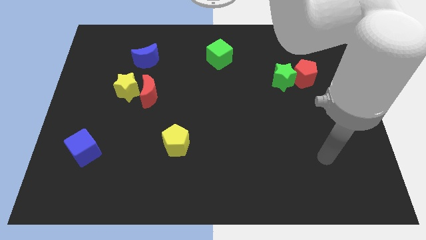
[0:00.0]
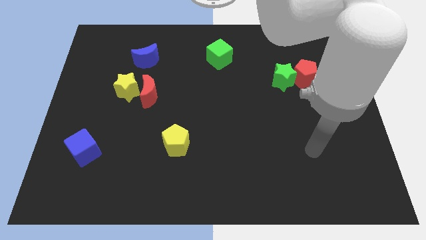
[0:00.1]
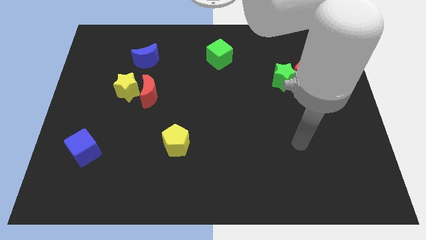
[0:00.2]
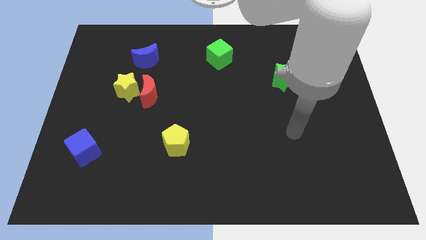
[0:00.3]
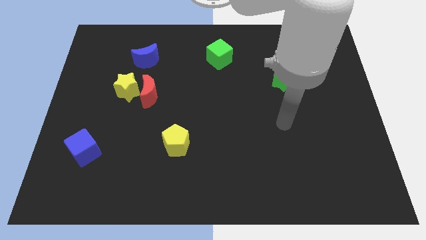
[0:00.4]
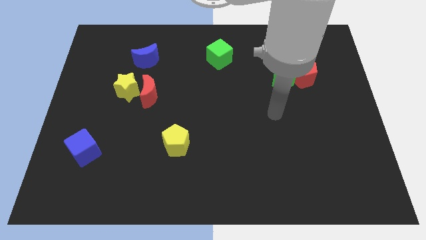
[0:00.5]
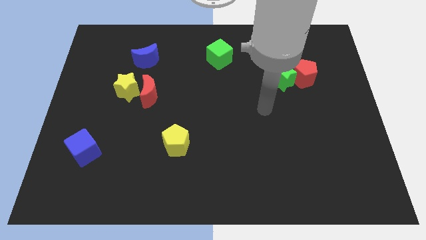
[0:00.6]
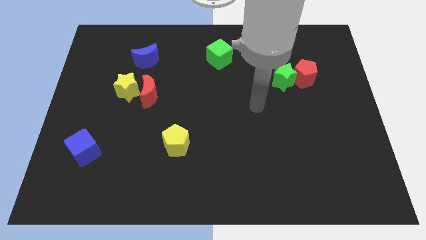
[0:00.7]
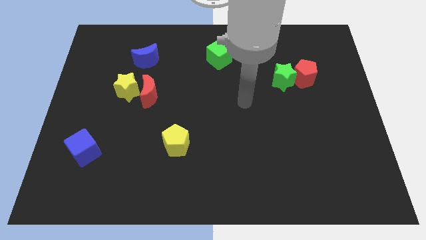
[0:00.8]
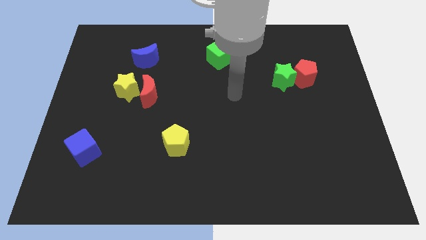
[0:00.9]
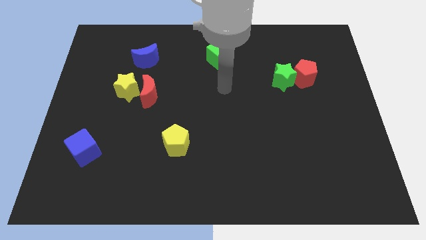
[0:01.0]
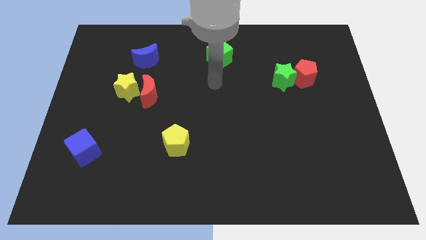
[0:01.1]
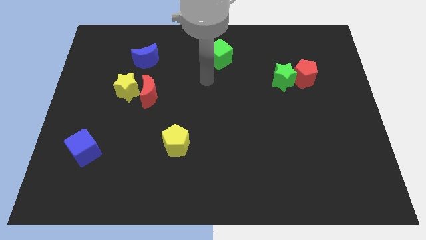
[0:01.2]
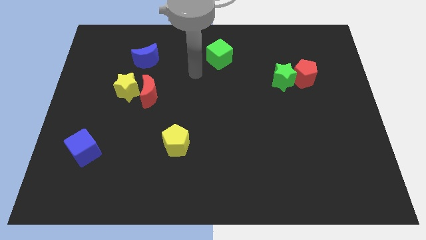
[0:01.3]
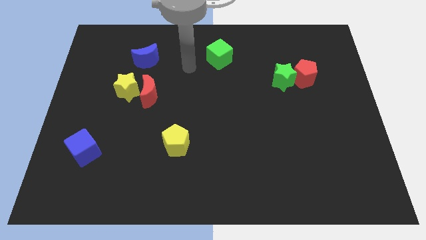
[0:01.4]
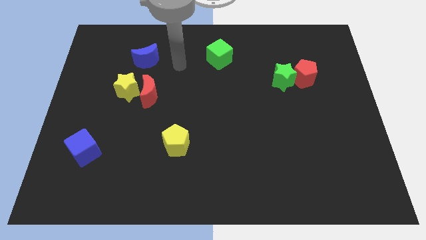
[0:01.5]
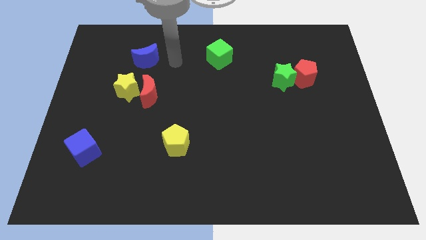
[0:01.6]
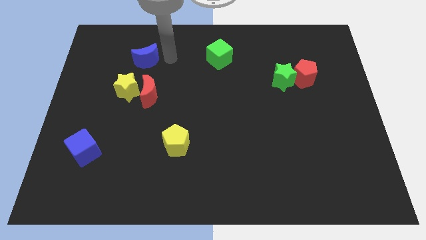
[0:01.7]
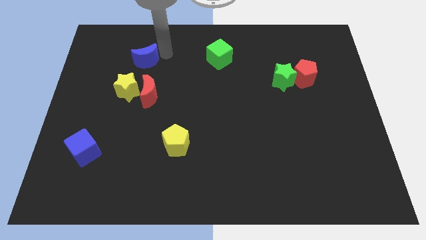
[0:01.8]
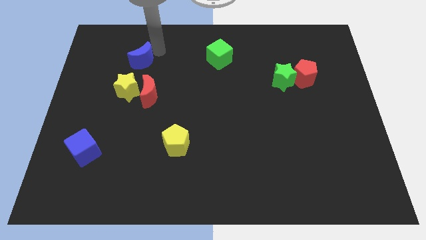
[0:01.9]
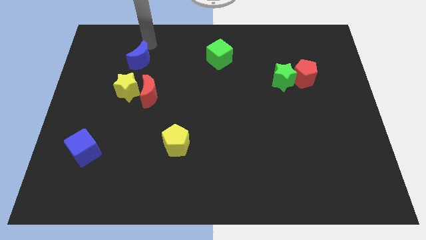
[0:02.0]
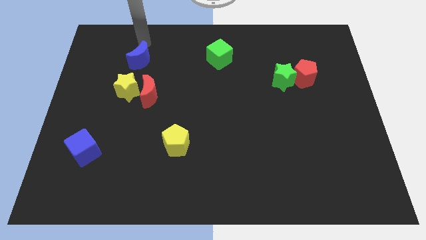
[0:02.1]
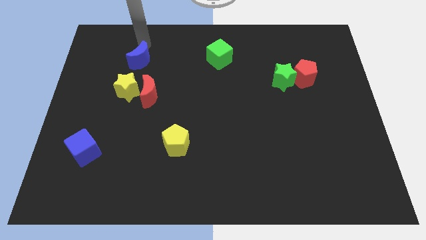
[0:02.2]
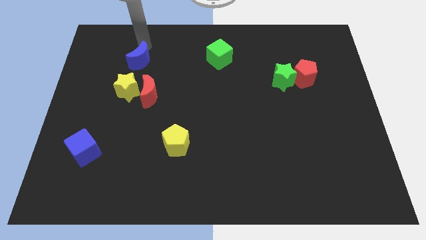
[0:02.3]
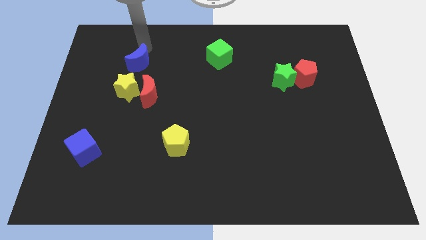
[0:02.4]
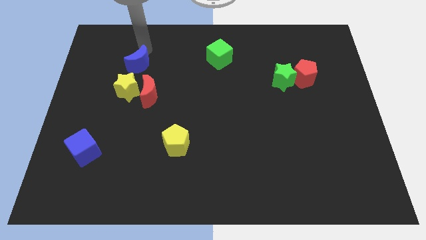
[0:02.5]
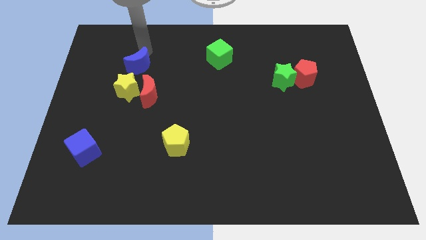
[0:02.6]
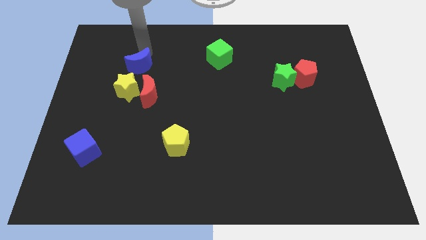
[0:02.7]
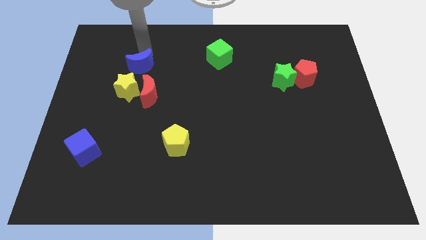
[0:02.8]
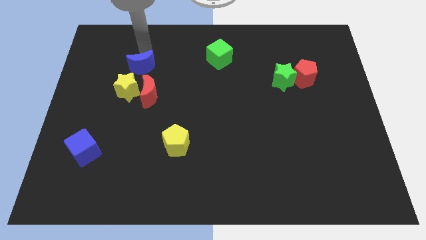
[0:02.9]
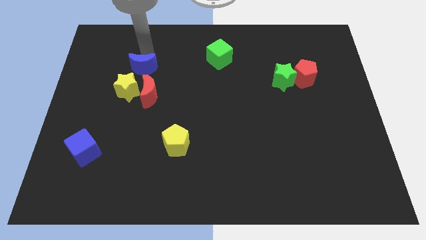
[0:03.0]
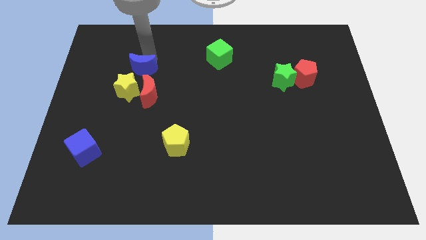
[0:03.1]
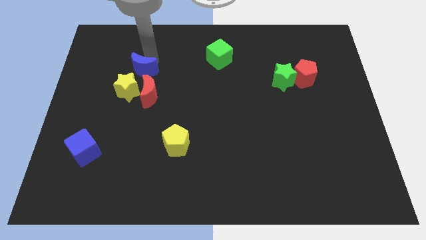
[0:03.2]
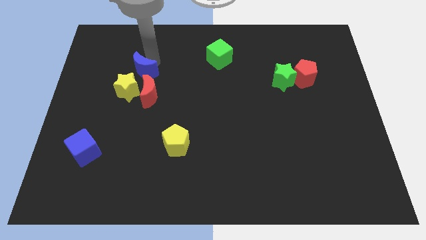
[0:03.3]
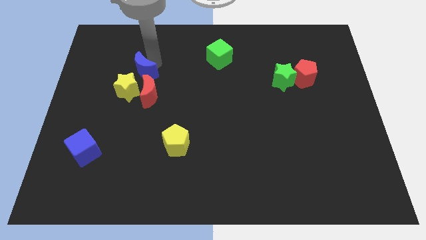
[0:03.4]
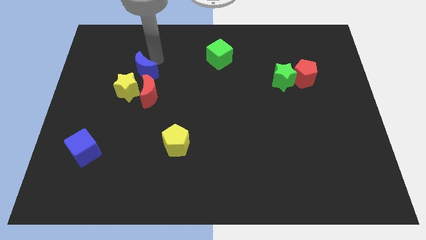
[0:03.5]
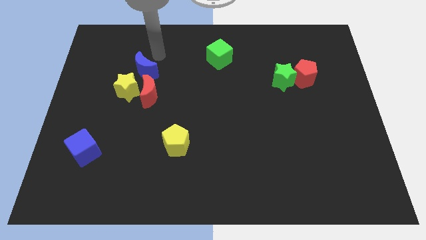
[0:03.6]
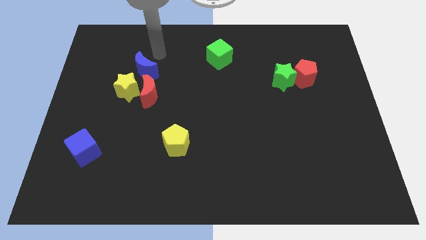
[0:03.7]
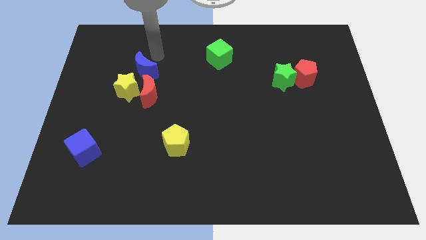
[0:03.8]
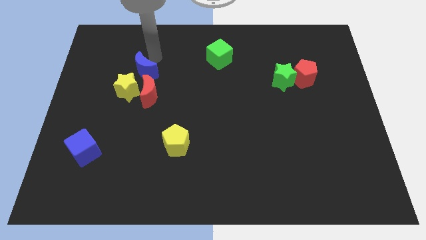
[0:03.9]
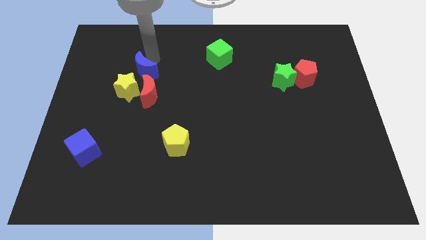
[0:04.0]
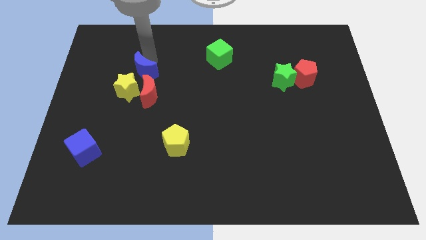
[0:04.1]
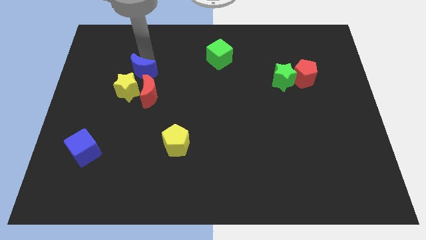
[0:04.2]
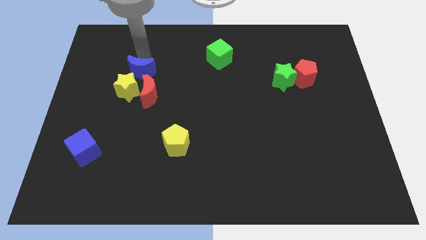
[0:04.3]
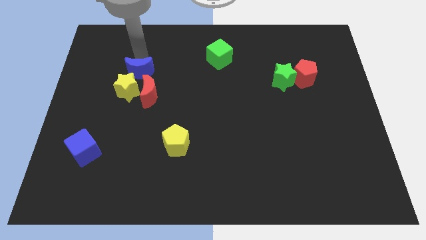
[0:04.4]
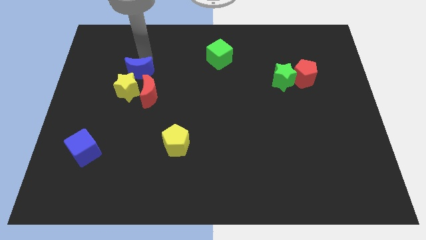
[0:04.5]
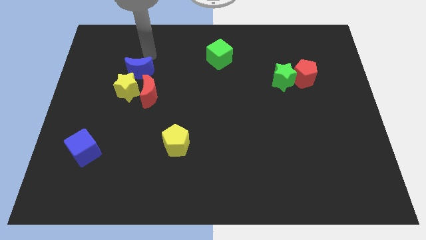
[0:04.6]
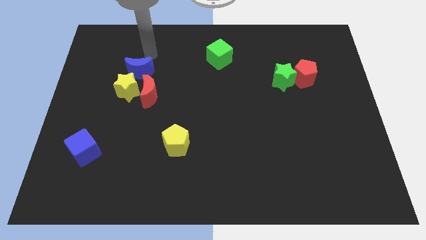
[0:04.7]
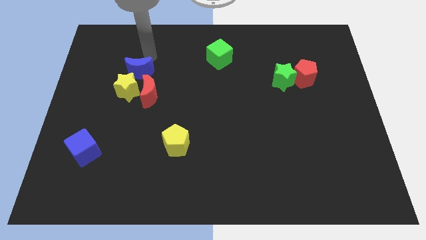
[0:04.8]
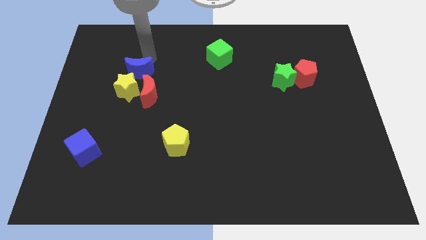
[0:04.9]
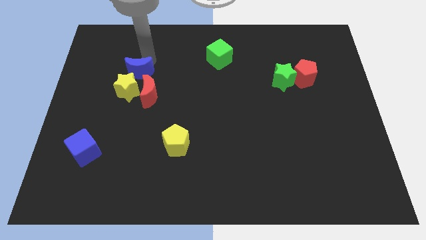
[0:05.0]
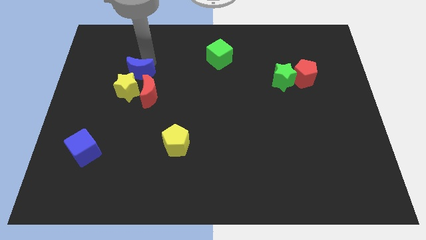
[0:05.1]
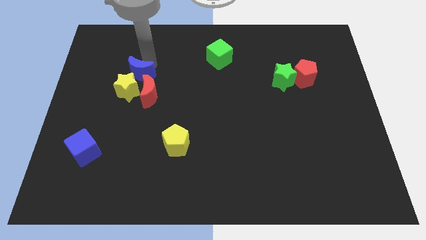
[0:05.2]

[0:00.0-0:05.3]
push the blue moon next to the yellow star

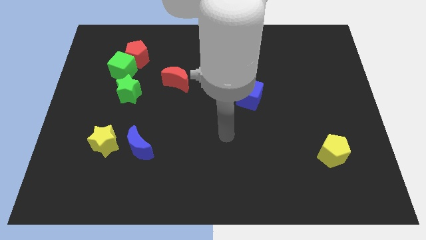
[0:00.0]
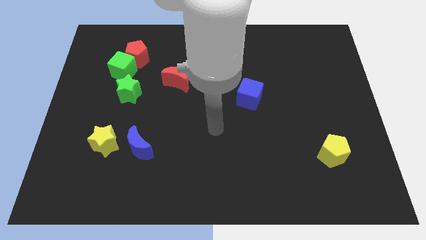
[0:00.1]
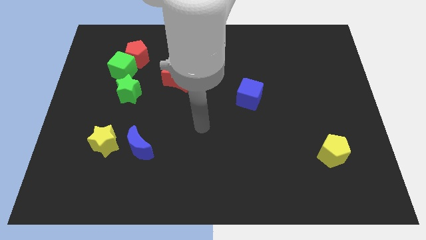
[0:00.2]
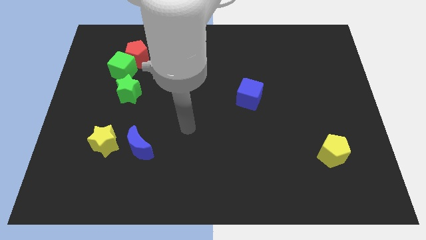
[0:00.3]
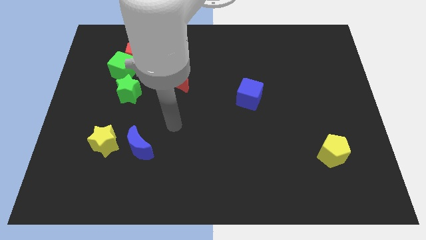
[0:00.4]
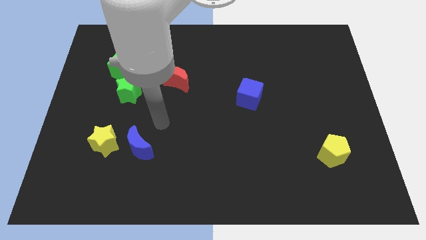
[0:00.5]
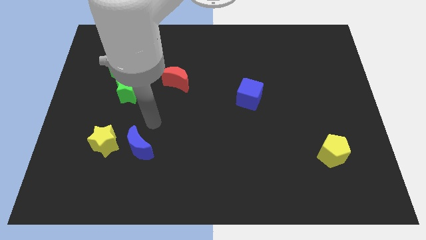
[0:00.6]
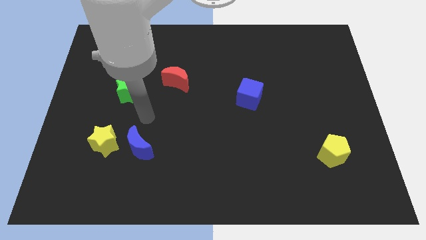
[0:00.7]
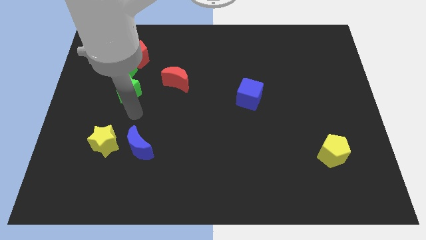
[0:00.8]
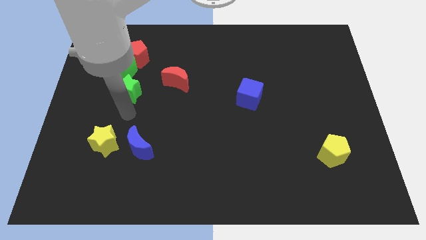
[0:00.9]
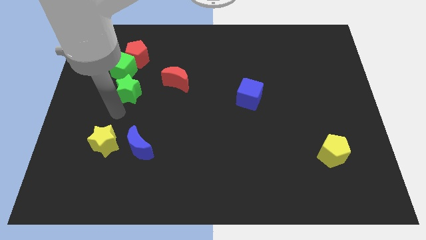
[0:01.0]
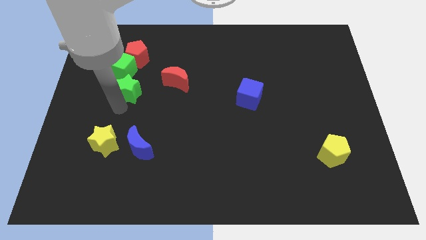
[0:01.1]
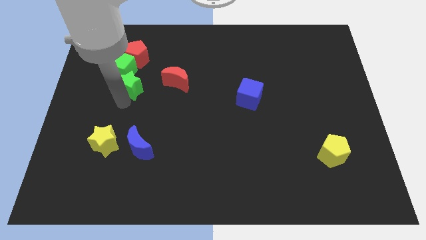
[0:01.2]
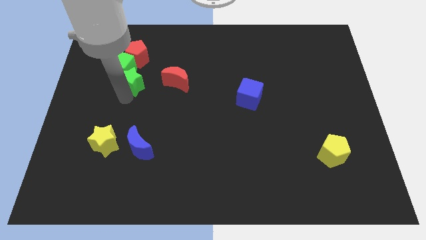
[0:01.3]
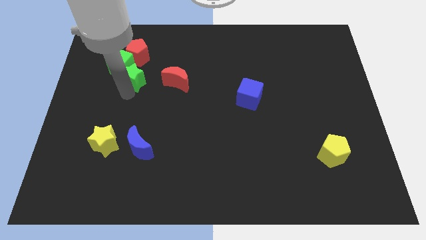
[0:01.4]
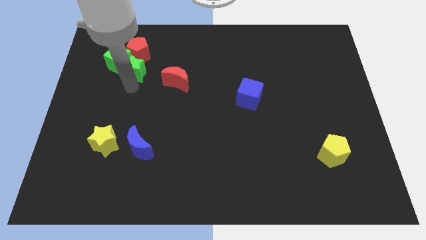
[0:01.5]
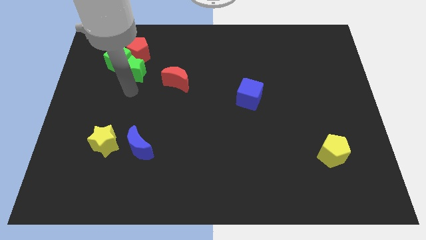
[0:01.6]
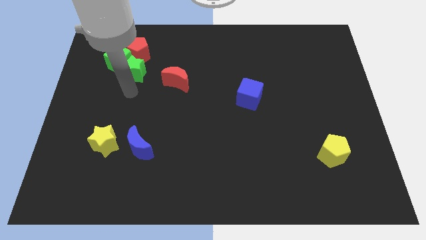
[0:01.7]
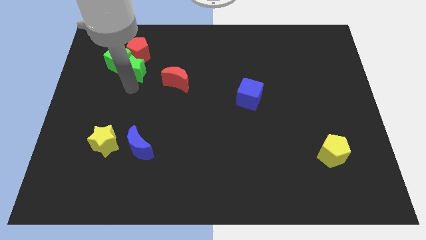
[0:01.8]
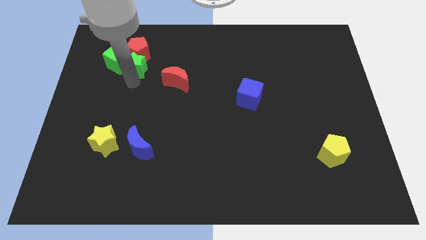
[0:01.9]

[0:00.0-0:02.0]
move the green star next to the red pentagon
